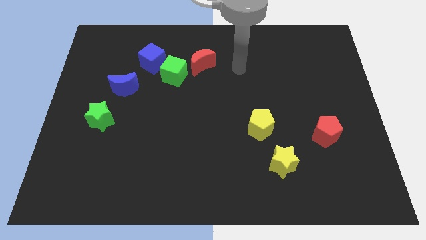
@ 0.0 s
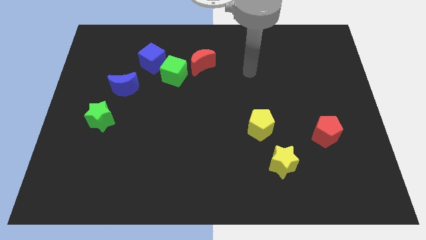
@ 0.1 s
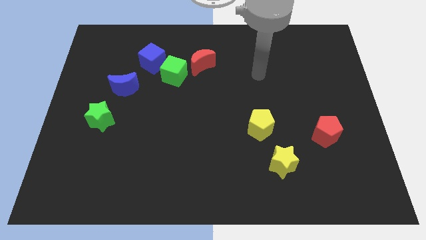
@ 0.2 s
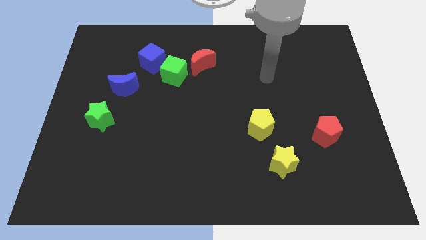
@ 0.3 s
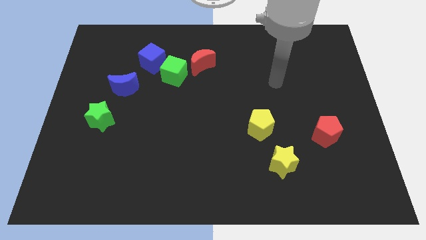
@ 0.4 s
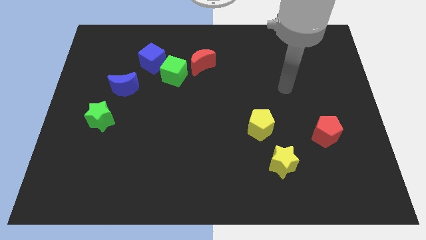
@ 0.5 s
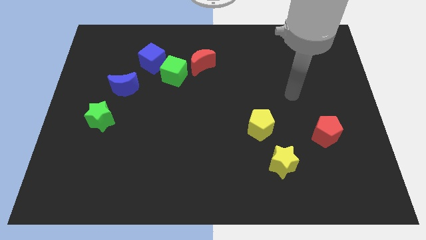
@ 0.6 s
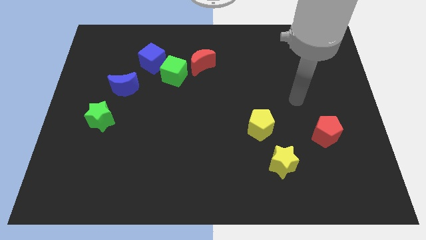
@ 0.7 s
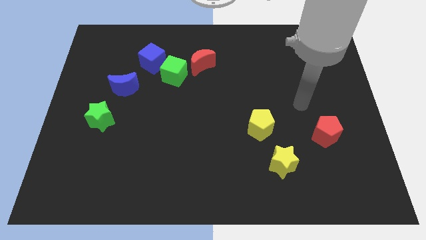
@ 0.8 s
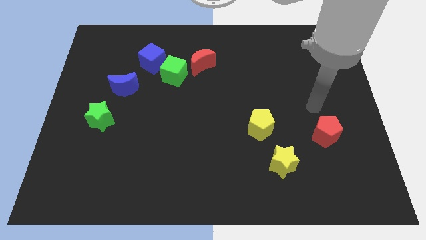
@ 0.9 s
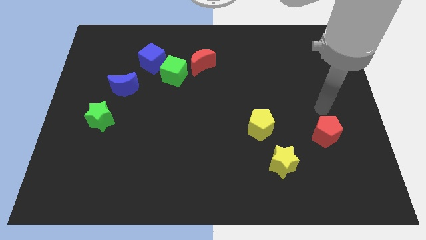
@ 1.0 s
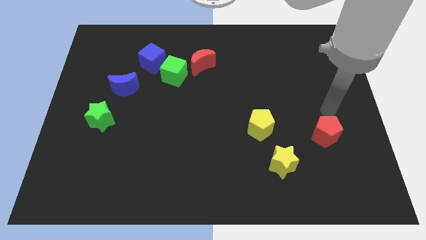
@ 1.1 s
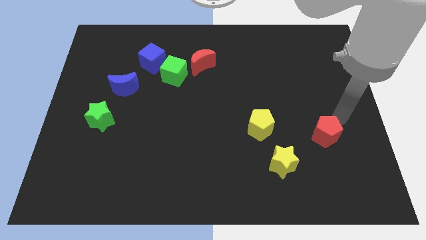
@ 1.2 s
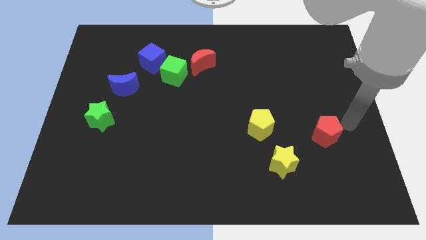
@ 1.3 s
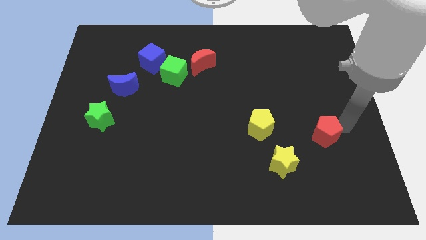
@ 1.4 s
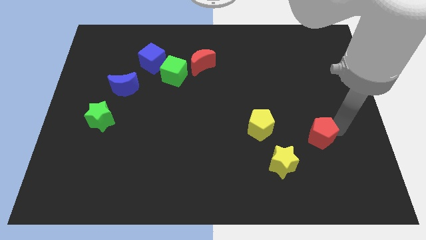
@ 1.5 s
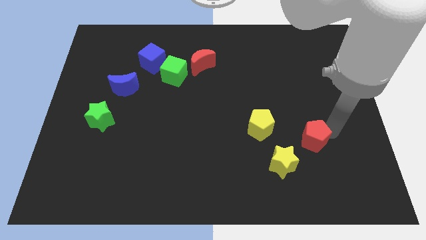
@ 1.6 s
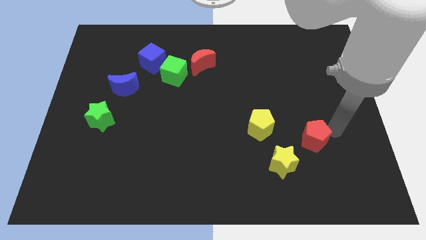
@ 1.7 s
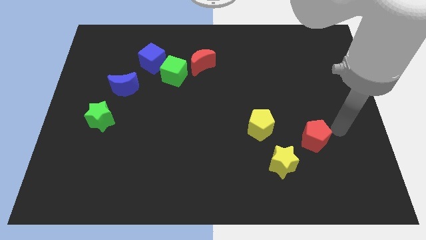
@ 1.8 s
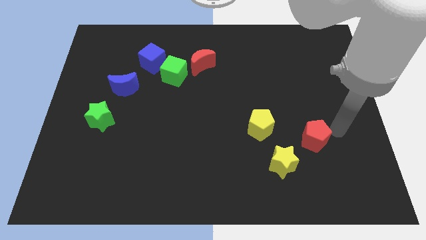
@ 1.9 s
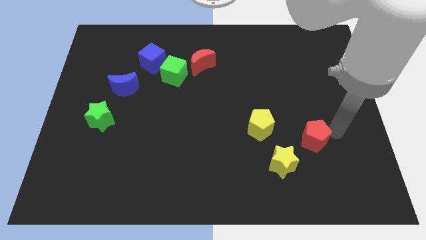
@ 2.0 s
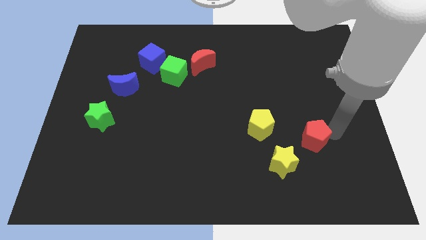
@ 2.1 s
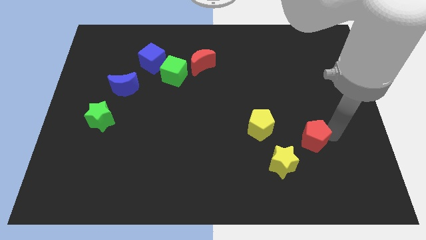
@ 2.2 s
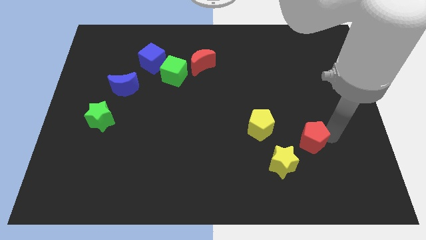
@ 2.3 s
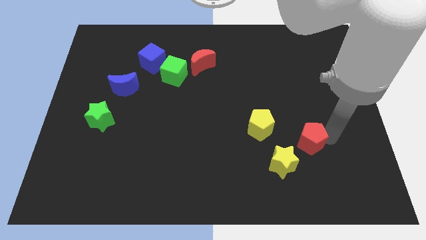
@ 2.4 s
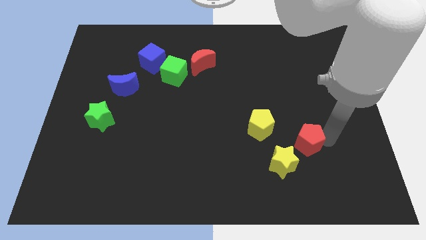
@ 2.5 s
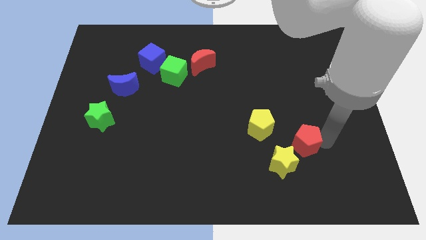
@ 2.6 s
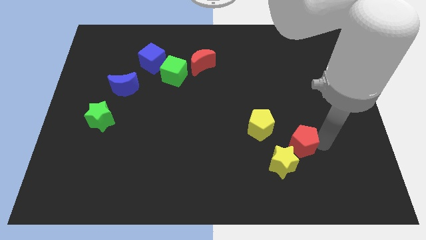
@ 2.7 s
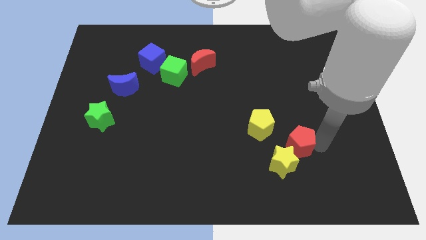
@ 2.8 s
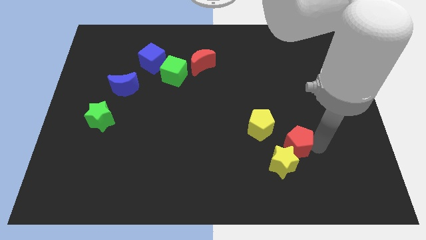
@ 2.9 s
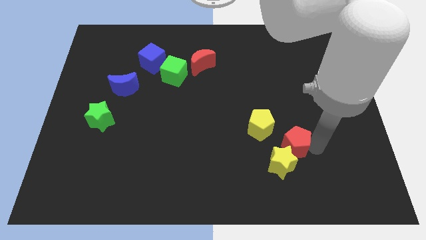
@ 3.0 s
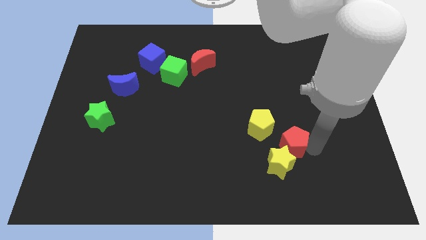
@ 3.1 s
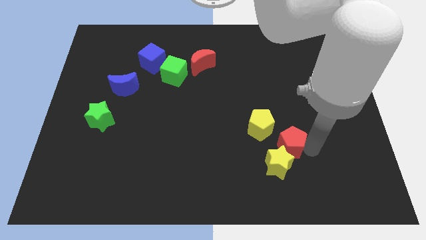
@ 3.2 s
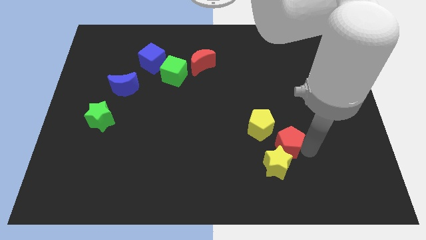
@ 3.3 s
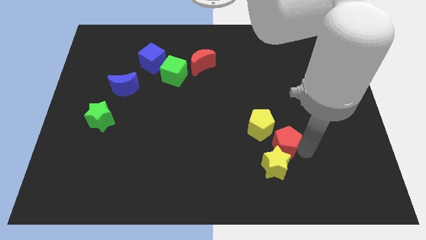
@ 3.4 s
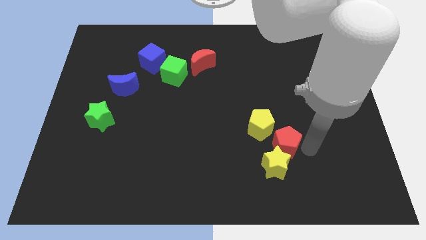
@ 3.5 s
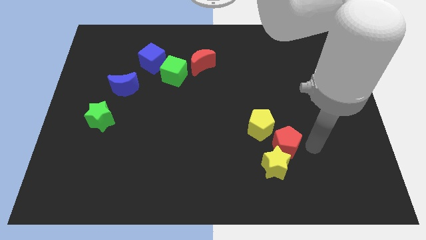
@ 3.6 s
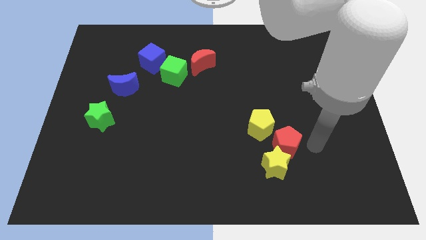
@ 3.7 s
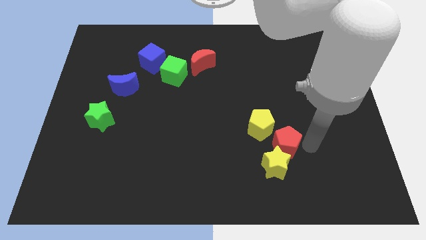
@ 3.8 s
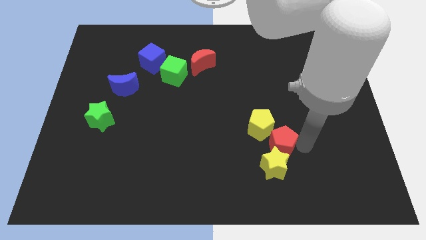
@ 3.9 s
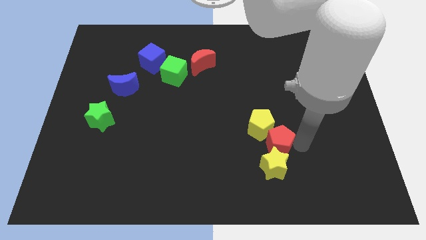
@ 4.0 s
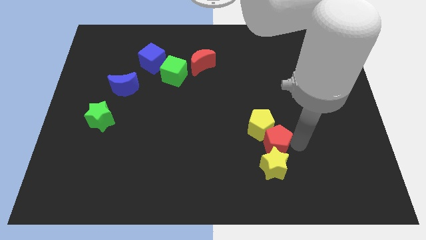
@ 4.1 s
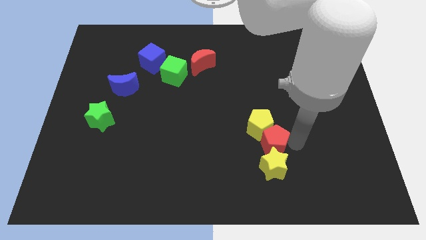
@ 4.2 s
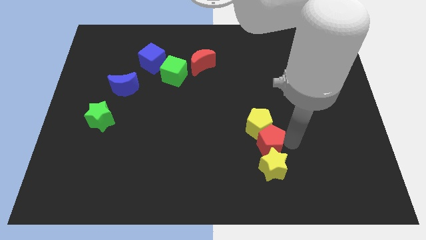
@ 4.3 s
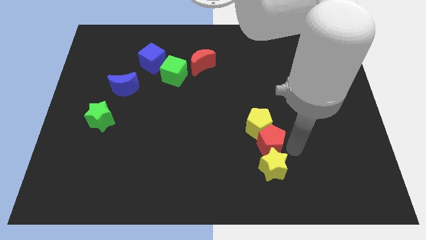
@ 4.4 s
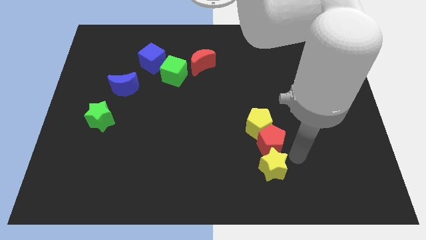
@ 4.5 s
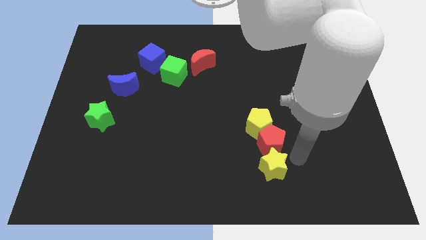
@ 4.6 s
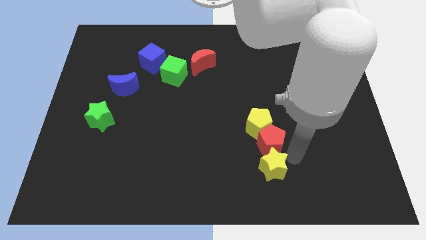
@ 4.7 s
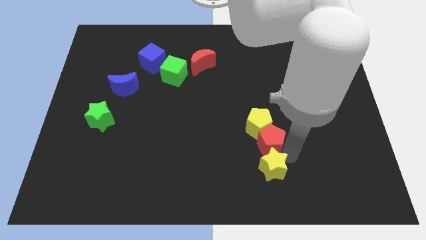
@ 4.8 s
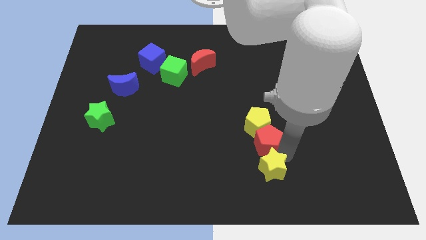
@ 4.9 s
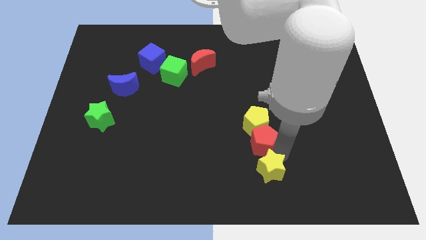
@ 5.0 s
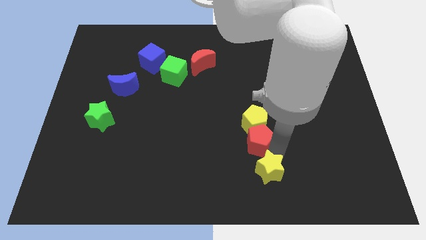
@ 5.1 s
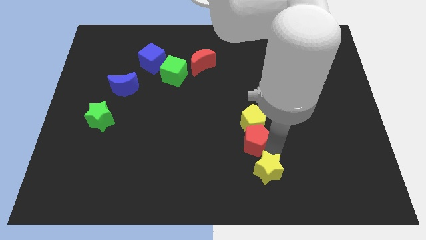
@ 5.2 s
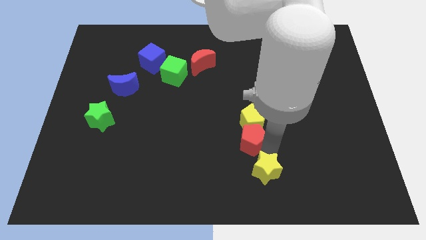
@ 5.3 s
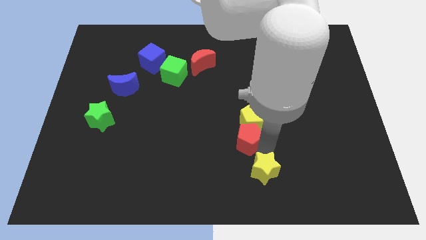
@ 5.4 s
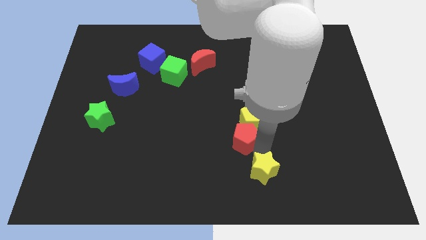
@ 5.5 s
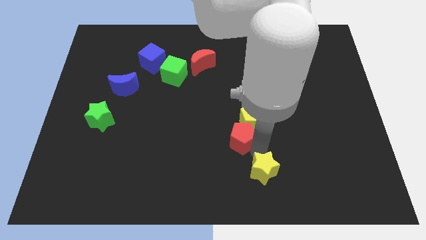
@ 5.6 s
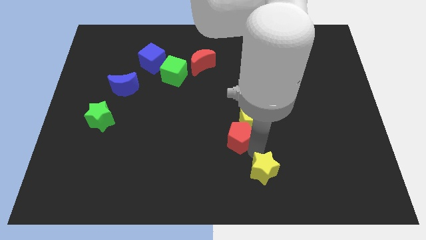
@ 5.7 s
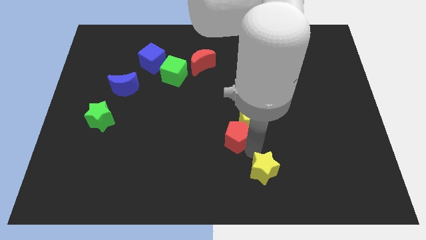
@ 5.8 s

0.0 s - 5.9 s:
slide the red pentagon left

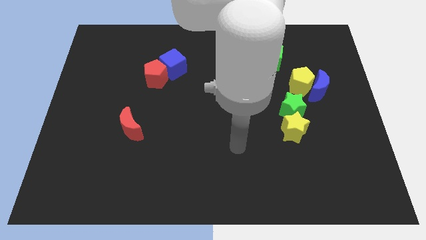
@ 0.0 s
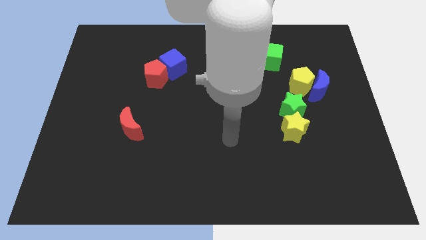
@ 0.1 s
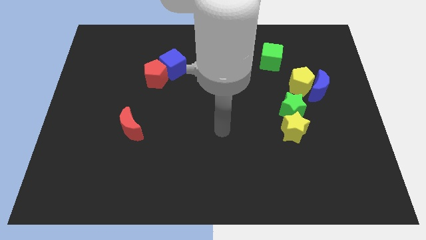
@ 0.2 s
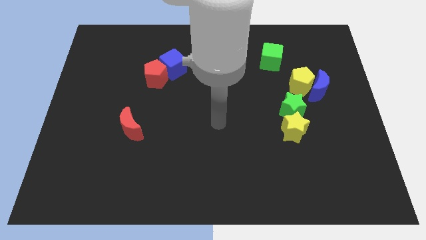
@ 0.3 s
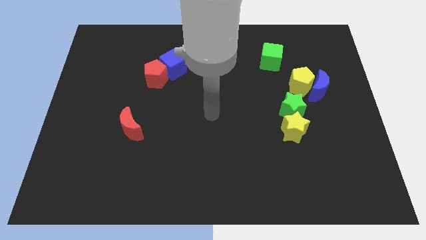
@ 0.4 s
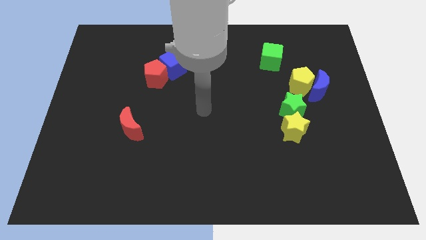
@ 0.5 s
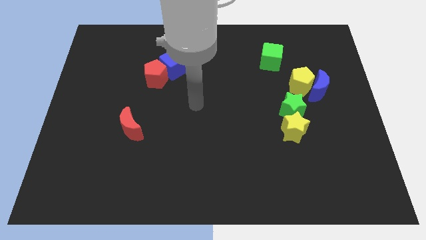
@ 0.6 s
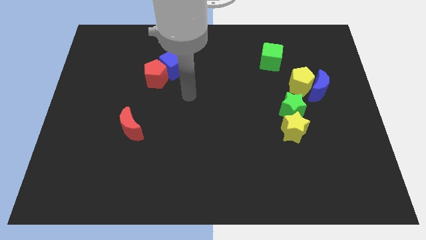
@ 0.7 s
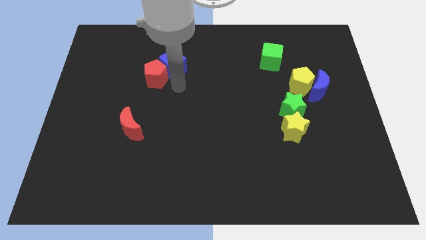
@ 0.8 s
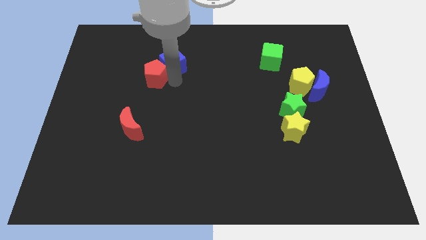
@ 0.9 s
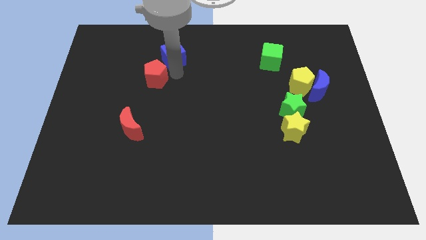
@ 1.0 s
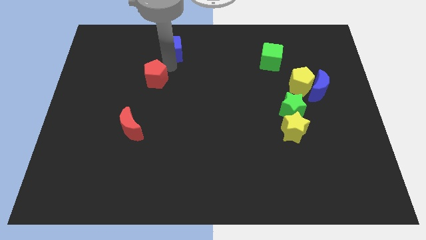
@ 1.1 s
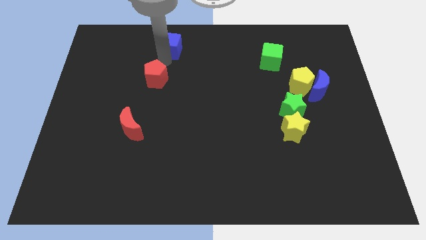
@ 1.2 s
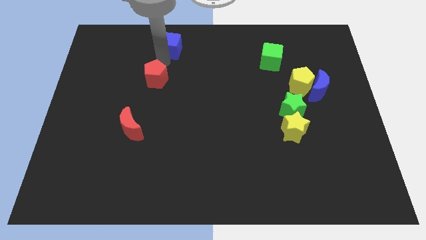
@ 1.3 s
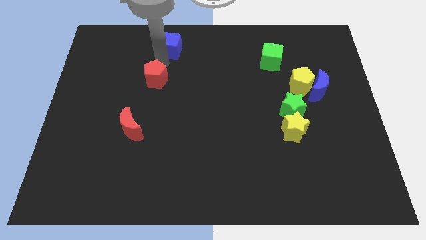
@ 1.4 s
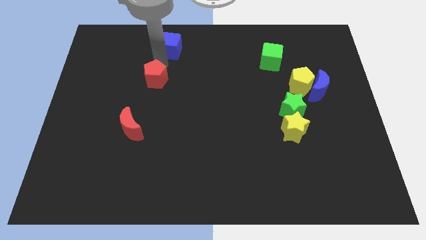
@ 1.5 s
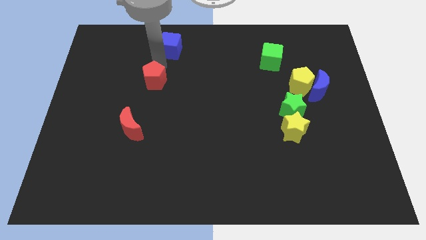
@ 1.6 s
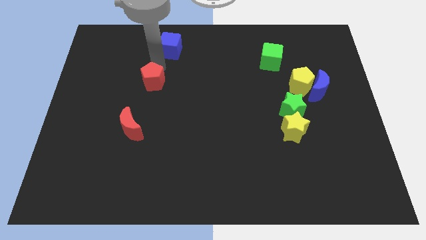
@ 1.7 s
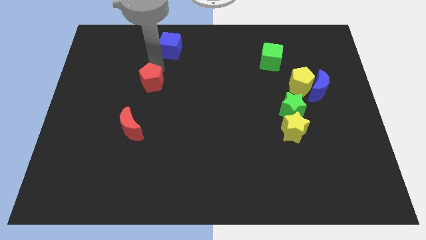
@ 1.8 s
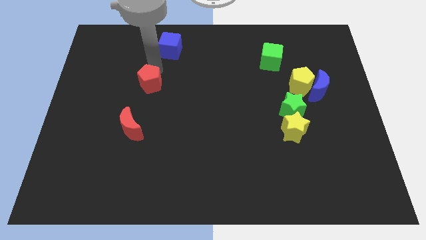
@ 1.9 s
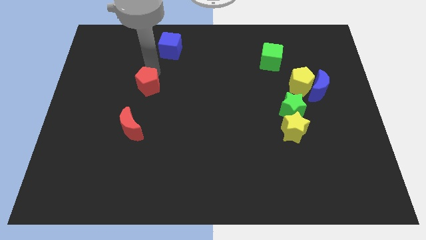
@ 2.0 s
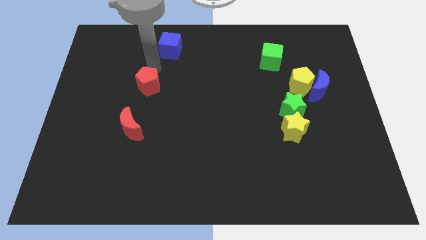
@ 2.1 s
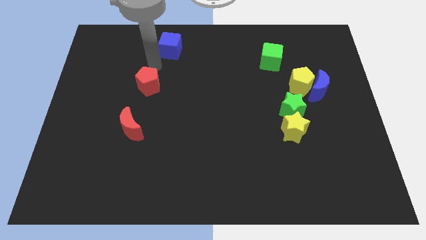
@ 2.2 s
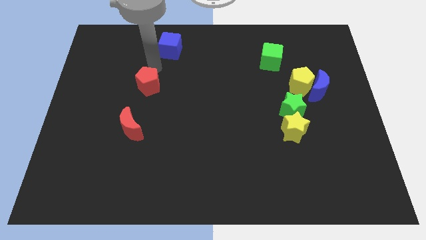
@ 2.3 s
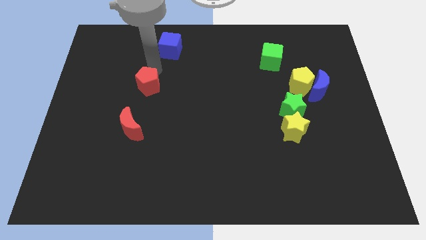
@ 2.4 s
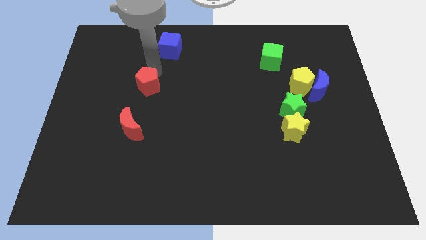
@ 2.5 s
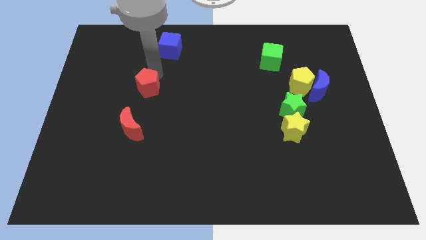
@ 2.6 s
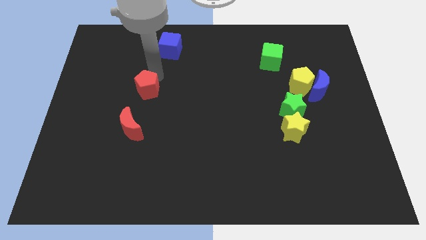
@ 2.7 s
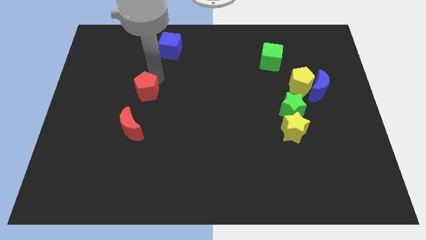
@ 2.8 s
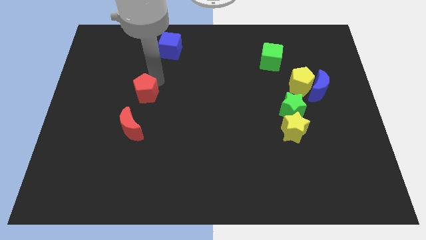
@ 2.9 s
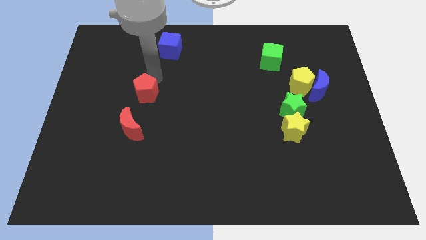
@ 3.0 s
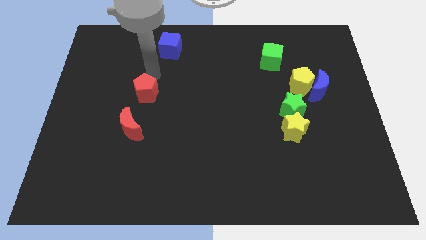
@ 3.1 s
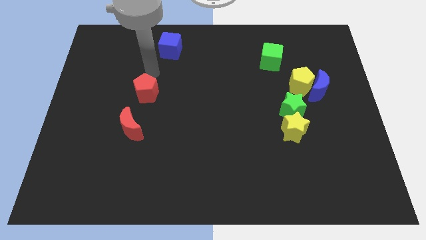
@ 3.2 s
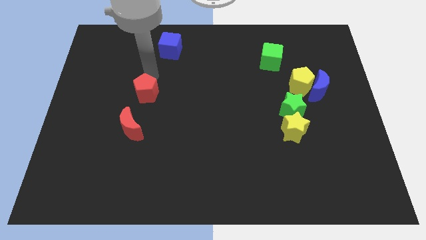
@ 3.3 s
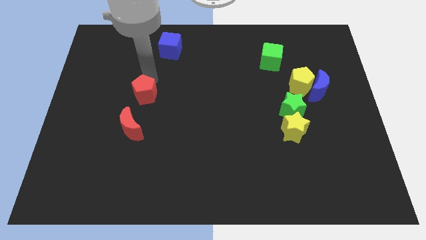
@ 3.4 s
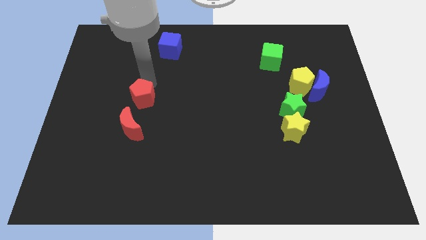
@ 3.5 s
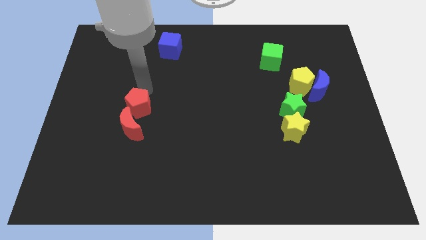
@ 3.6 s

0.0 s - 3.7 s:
push the red pentagon down slightly
